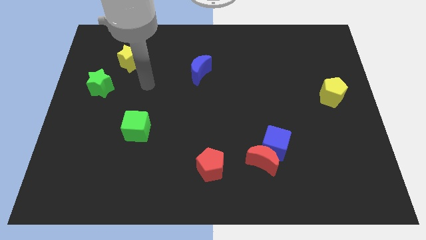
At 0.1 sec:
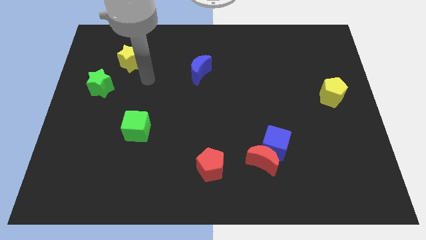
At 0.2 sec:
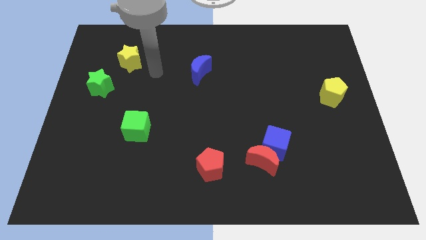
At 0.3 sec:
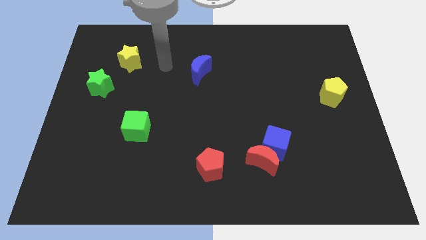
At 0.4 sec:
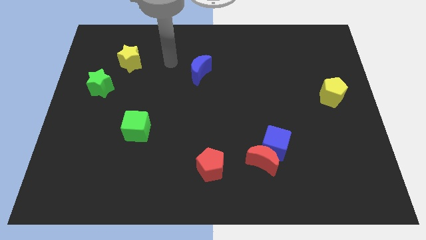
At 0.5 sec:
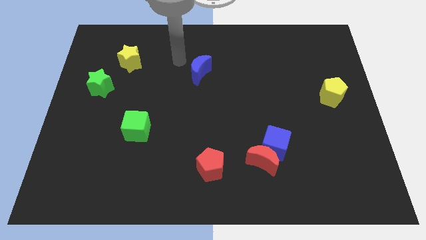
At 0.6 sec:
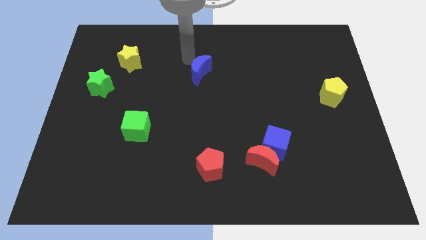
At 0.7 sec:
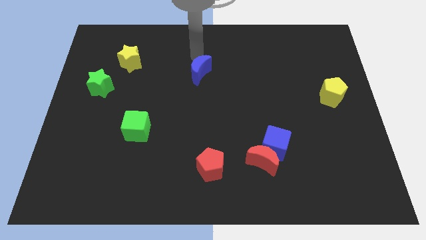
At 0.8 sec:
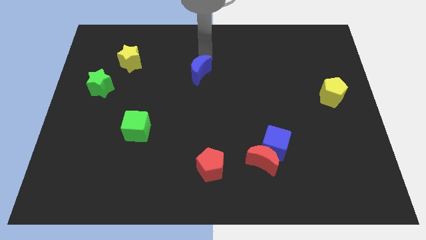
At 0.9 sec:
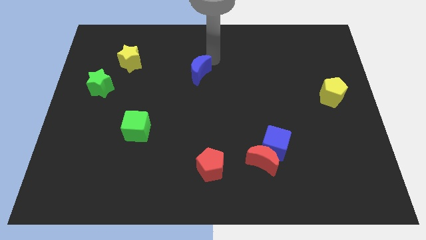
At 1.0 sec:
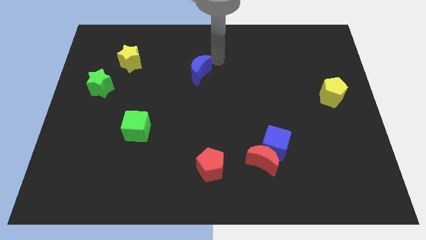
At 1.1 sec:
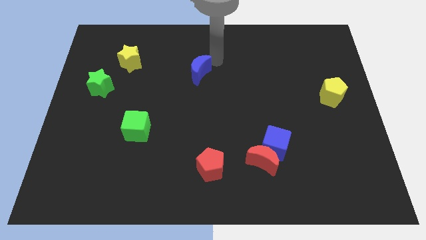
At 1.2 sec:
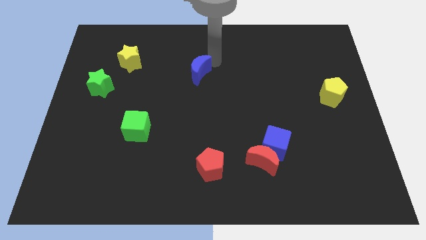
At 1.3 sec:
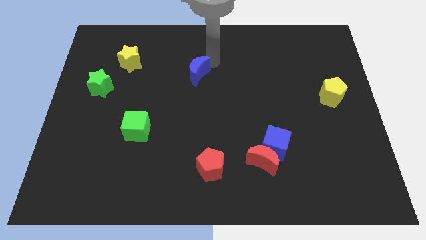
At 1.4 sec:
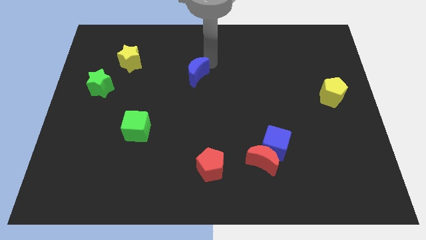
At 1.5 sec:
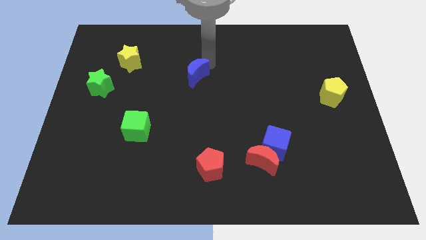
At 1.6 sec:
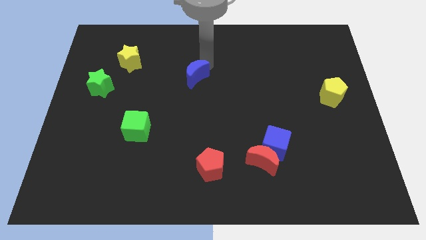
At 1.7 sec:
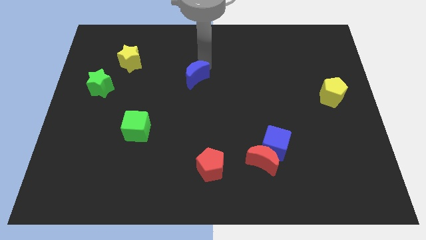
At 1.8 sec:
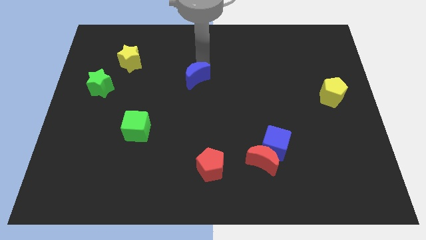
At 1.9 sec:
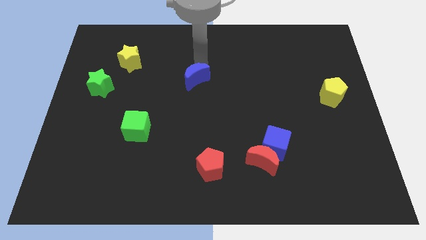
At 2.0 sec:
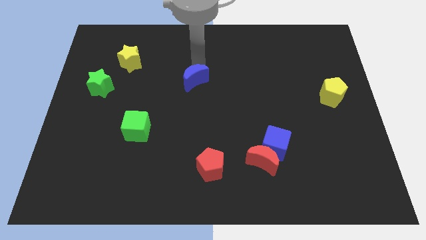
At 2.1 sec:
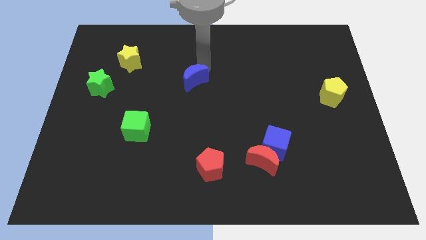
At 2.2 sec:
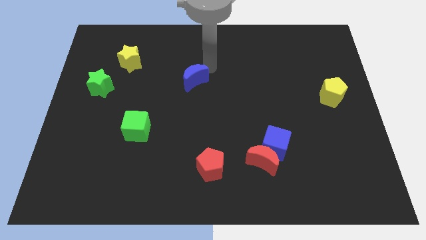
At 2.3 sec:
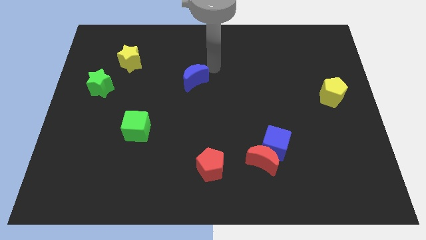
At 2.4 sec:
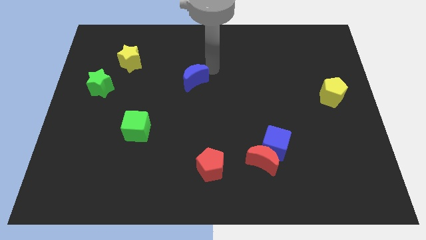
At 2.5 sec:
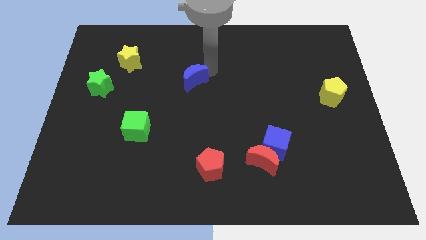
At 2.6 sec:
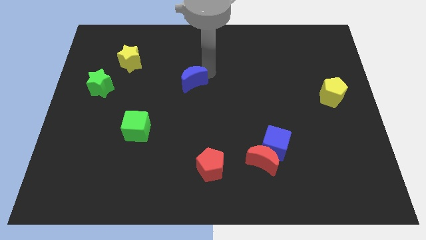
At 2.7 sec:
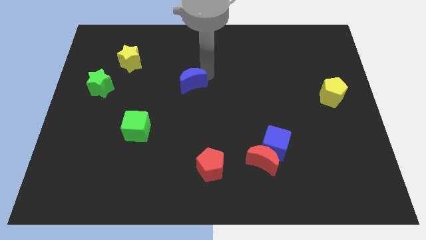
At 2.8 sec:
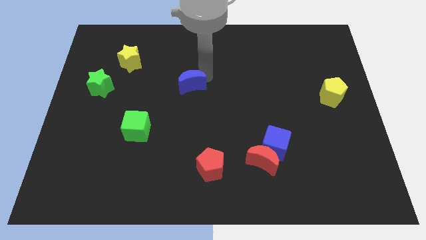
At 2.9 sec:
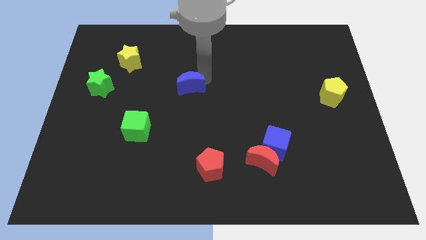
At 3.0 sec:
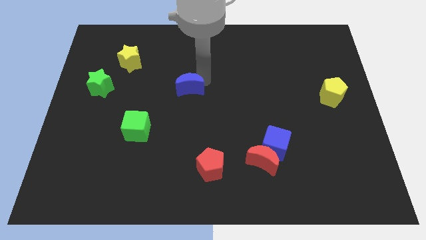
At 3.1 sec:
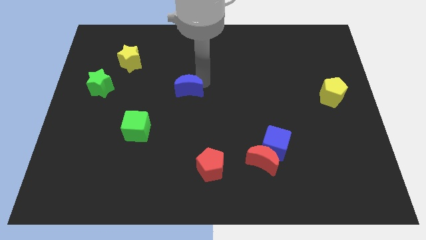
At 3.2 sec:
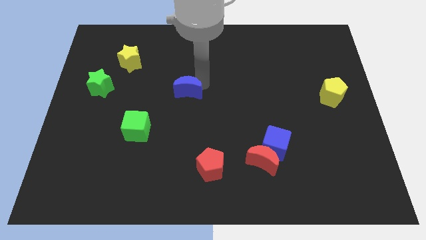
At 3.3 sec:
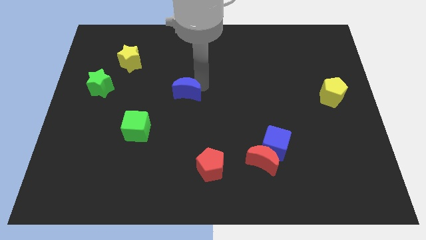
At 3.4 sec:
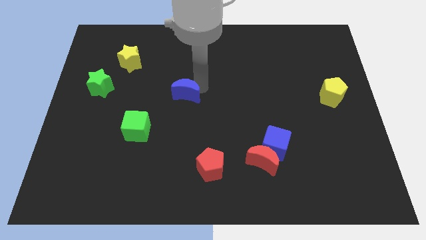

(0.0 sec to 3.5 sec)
move the blue moon downwards and then left somewhat

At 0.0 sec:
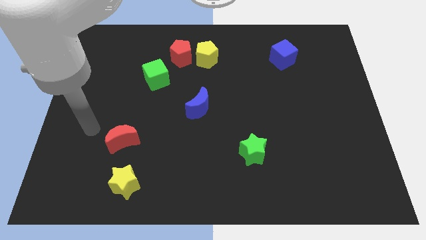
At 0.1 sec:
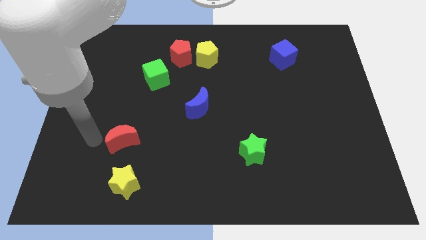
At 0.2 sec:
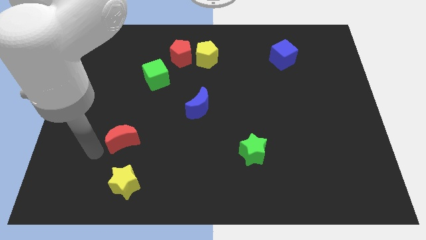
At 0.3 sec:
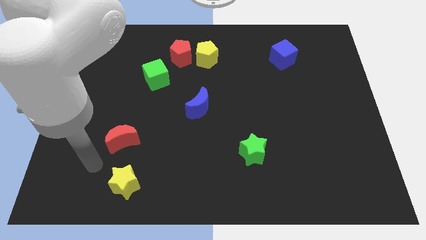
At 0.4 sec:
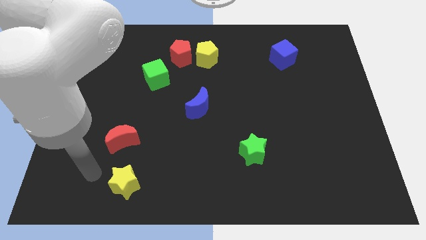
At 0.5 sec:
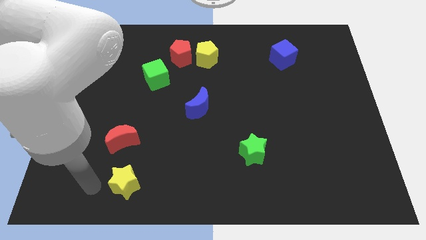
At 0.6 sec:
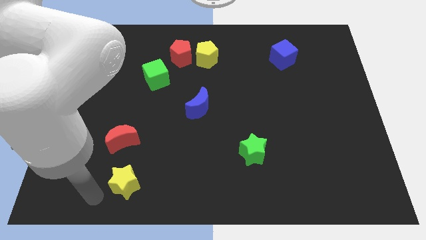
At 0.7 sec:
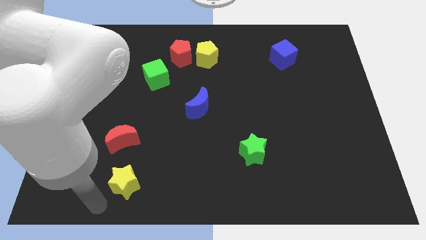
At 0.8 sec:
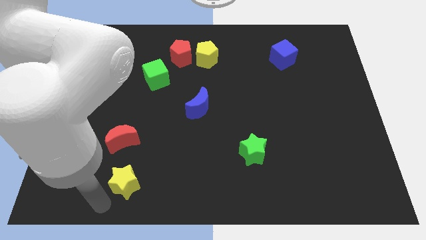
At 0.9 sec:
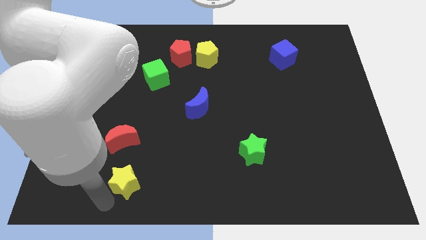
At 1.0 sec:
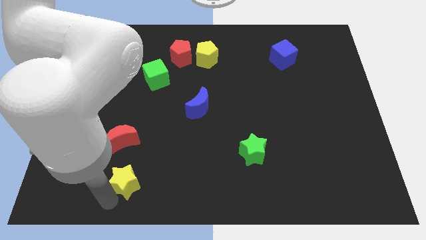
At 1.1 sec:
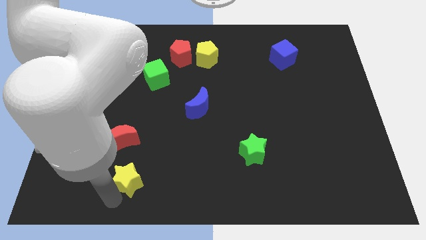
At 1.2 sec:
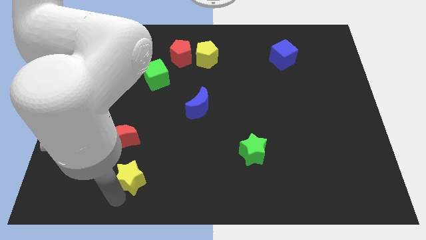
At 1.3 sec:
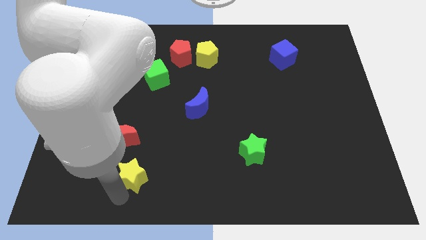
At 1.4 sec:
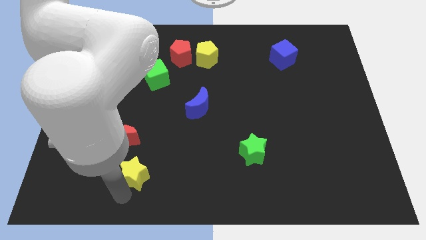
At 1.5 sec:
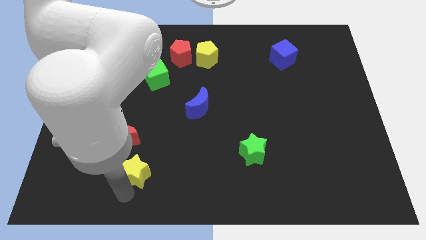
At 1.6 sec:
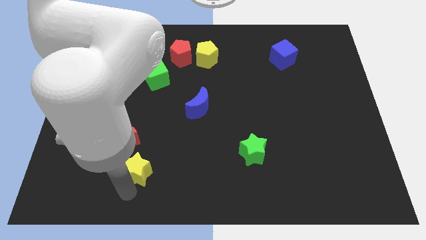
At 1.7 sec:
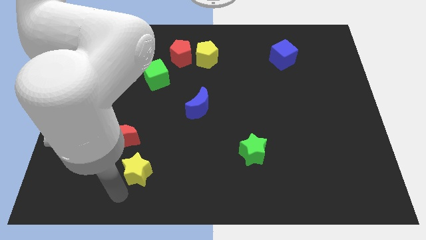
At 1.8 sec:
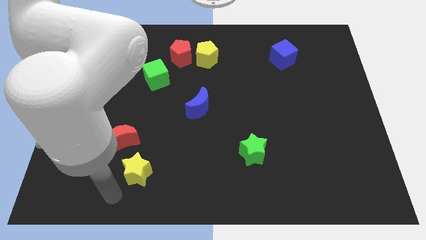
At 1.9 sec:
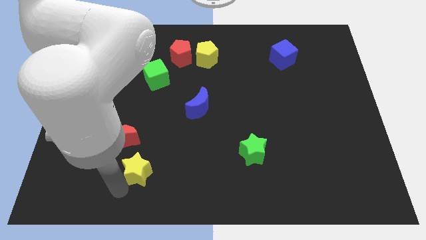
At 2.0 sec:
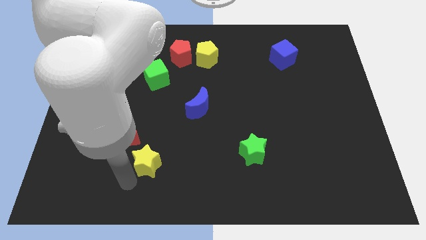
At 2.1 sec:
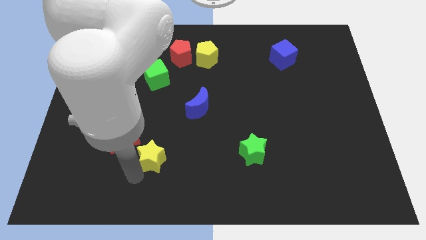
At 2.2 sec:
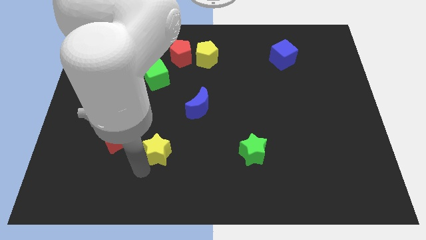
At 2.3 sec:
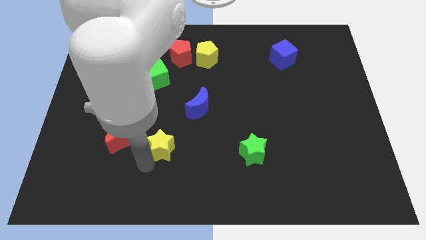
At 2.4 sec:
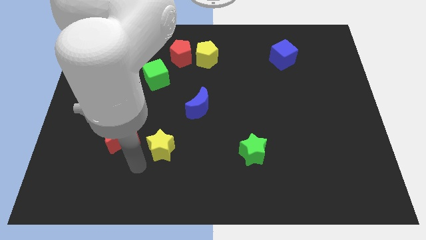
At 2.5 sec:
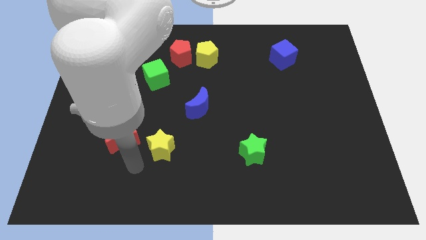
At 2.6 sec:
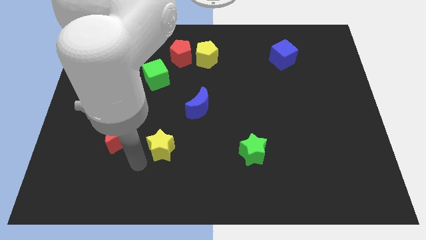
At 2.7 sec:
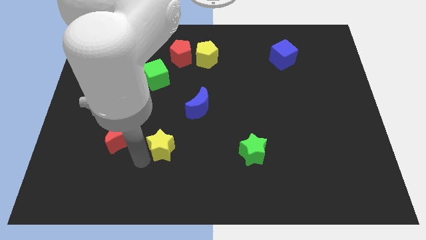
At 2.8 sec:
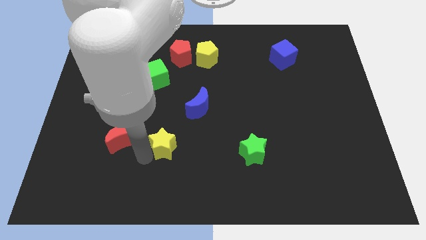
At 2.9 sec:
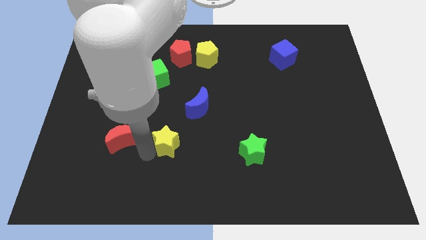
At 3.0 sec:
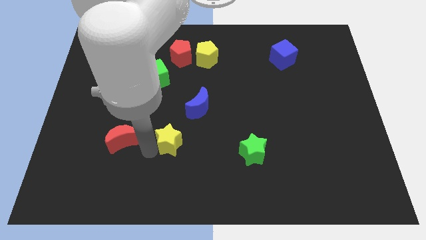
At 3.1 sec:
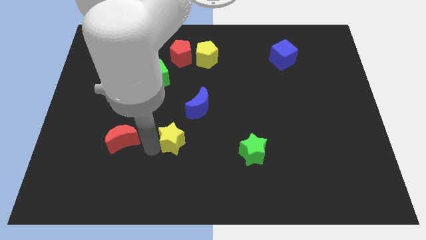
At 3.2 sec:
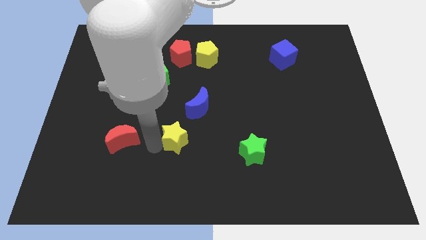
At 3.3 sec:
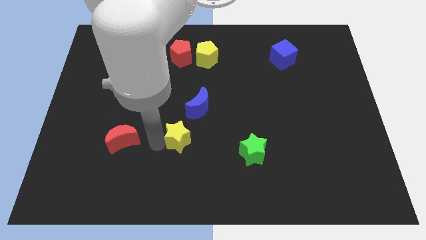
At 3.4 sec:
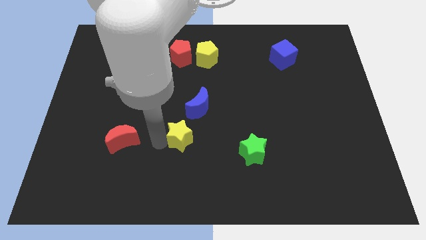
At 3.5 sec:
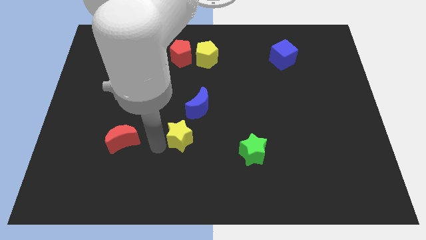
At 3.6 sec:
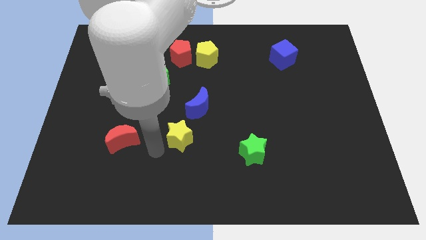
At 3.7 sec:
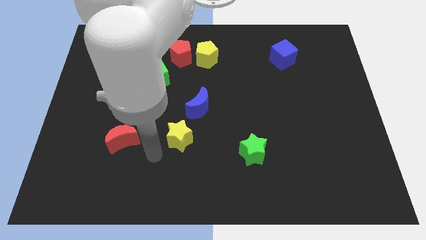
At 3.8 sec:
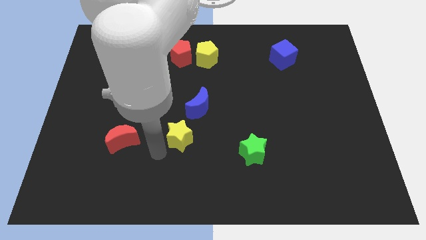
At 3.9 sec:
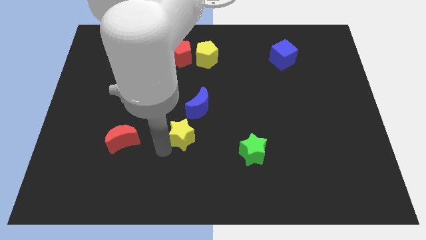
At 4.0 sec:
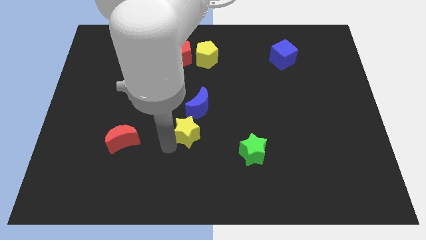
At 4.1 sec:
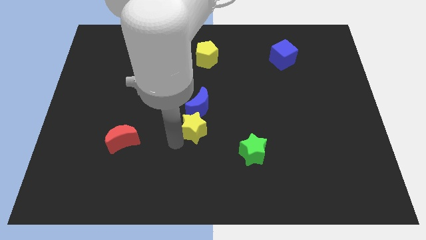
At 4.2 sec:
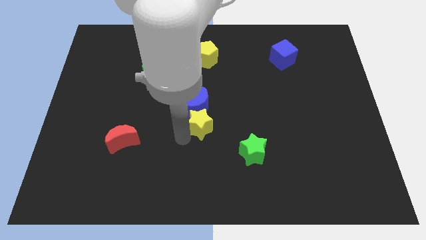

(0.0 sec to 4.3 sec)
slide the yellow star up and to the right diagonally
